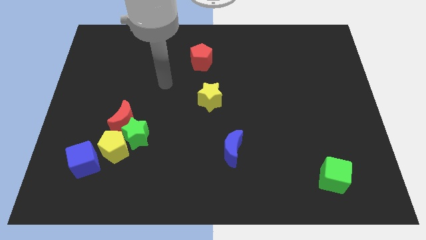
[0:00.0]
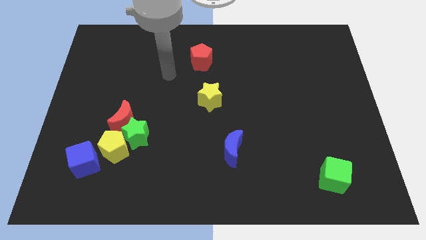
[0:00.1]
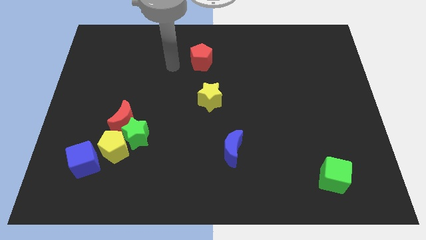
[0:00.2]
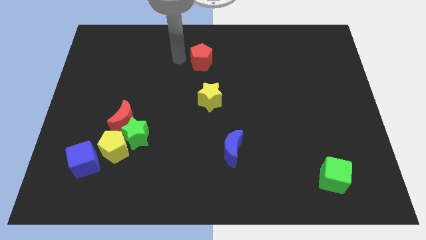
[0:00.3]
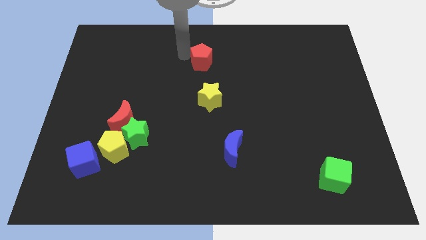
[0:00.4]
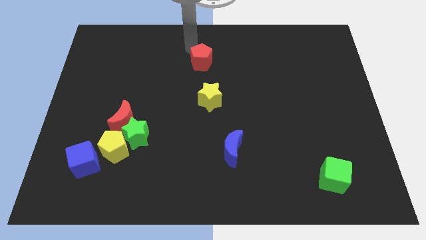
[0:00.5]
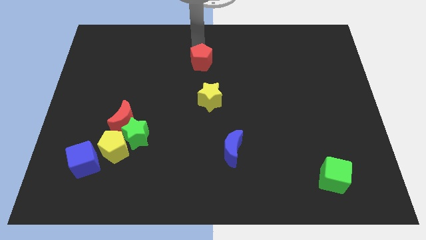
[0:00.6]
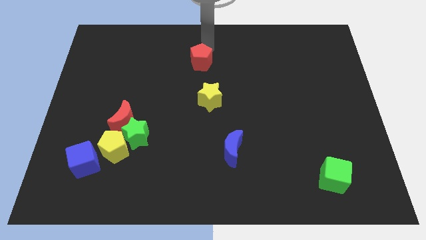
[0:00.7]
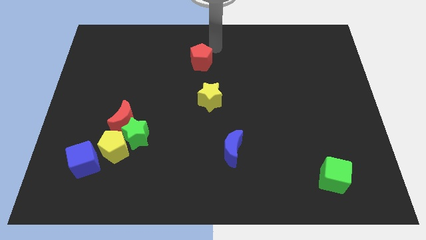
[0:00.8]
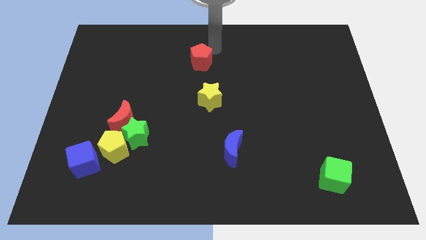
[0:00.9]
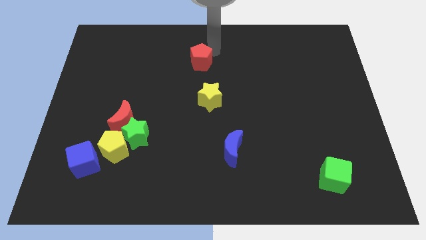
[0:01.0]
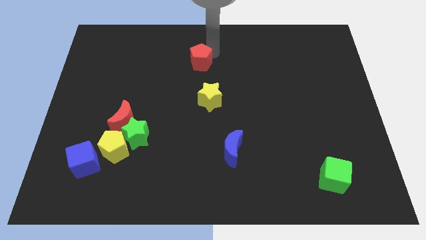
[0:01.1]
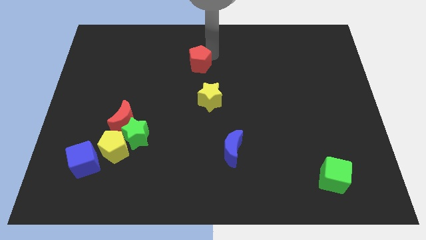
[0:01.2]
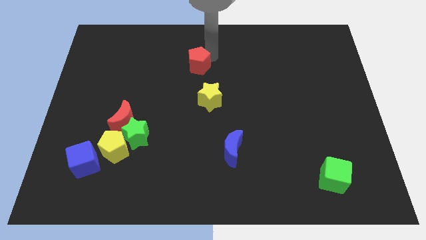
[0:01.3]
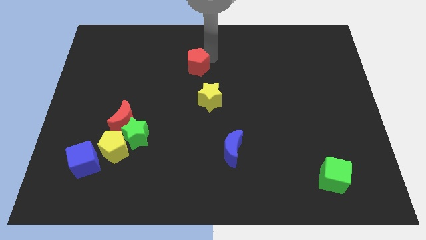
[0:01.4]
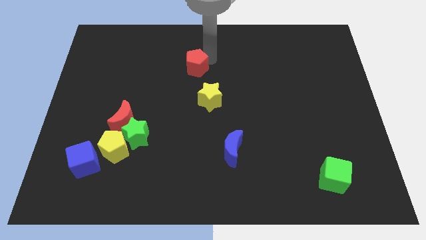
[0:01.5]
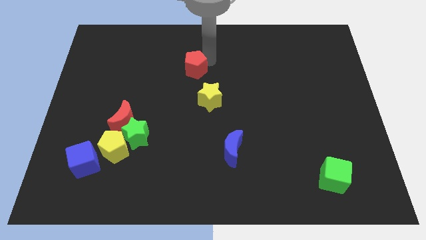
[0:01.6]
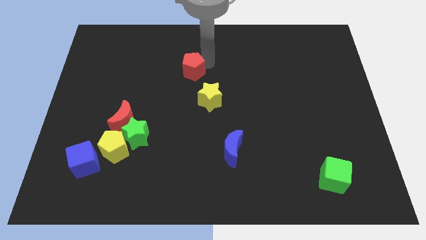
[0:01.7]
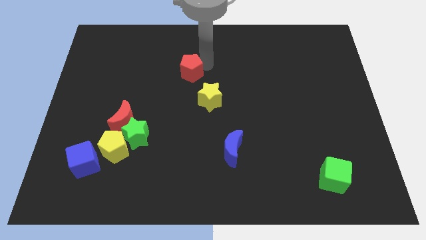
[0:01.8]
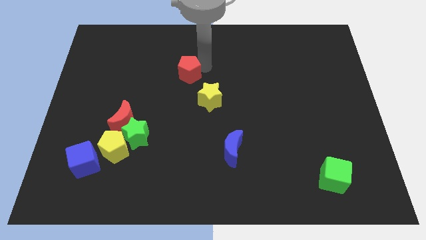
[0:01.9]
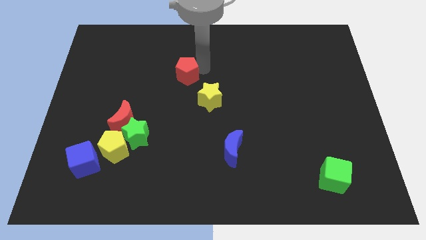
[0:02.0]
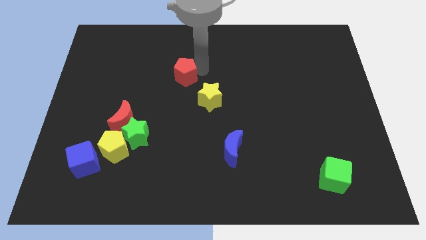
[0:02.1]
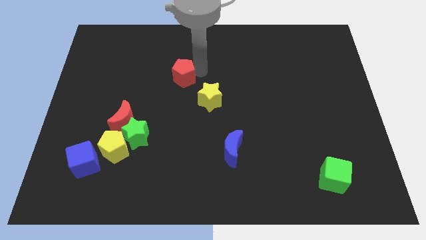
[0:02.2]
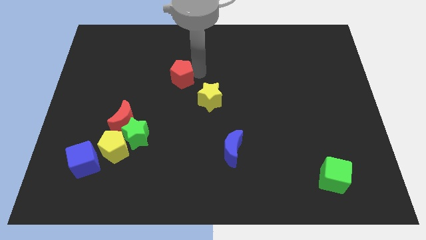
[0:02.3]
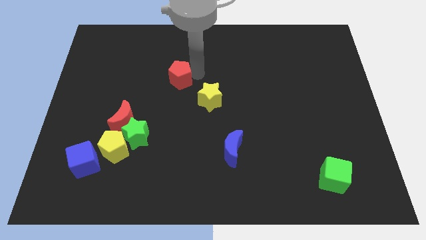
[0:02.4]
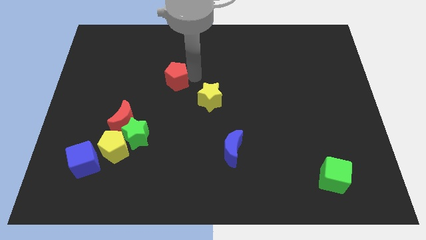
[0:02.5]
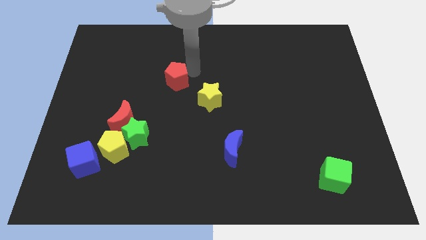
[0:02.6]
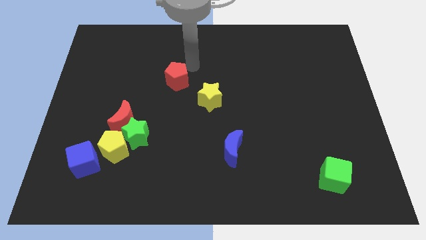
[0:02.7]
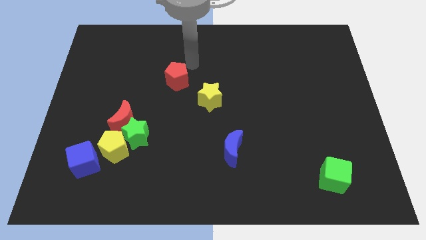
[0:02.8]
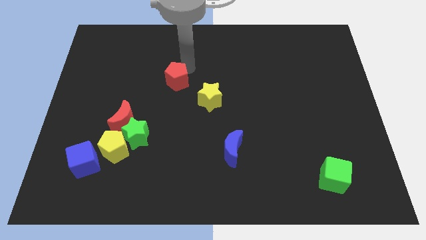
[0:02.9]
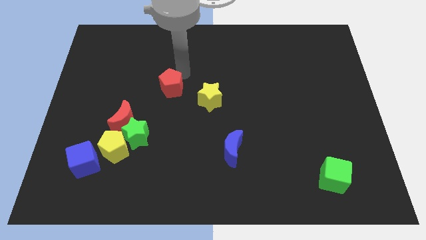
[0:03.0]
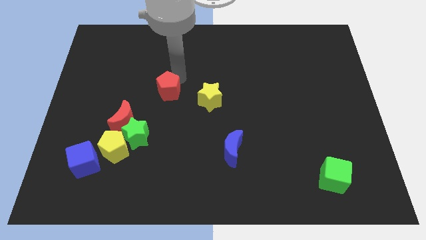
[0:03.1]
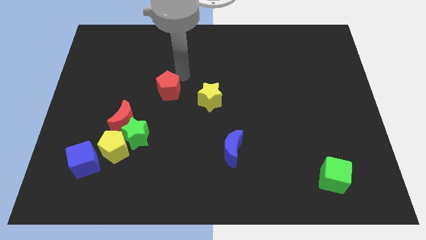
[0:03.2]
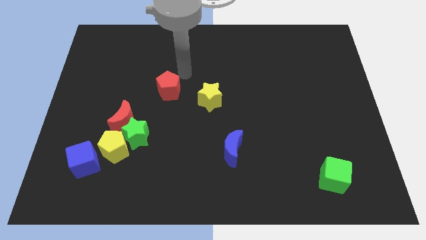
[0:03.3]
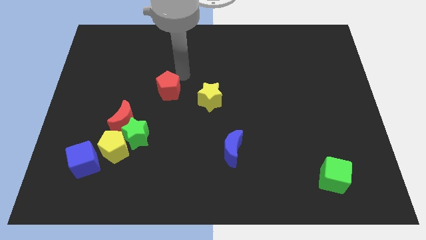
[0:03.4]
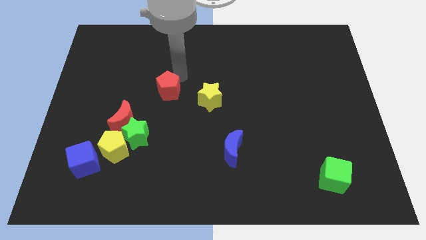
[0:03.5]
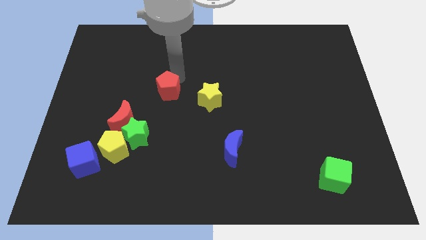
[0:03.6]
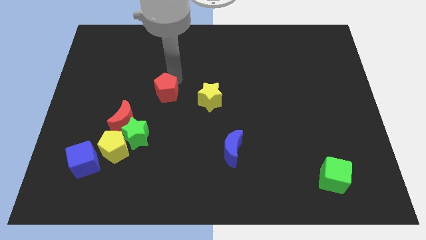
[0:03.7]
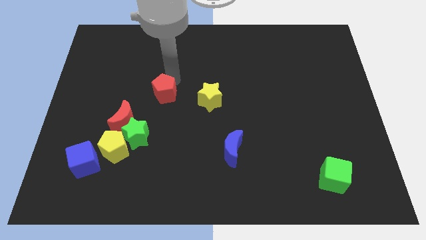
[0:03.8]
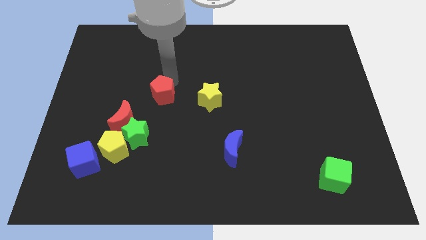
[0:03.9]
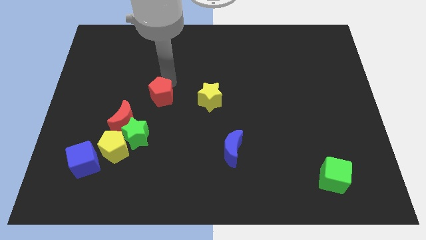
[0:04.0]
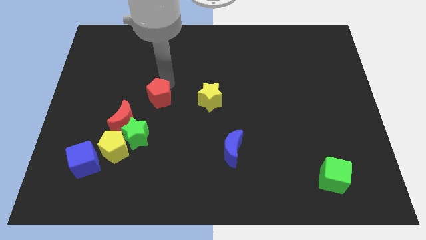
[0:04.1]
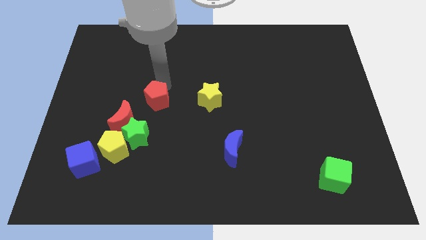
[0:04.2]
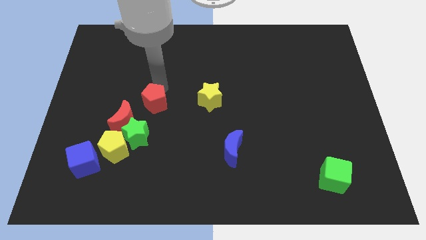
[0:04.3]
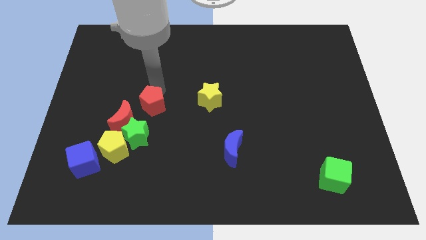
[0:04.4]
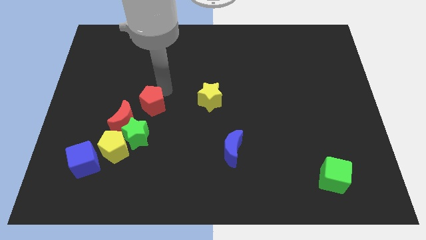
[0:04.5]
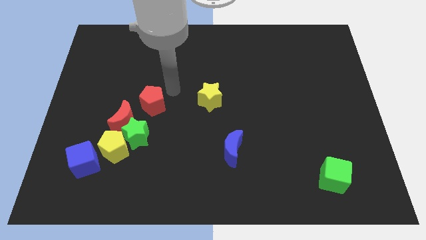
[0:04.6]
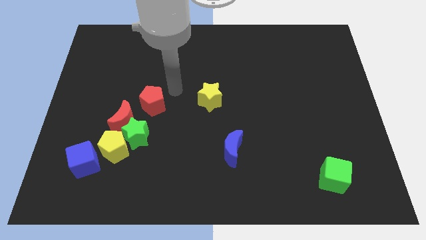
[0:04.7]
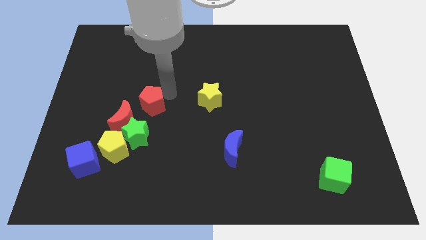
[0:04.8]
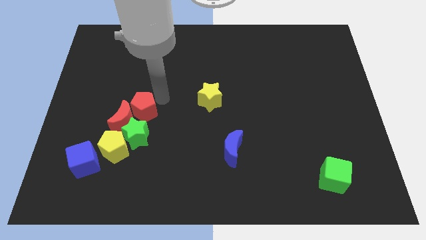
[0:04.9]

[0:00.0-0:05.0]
push the red pentagon to the red moon

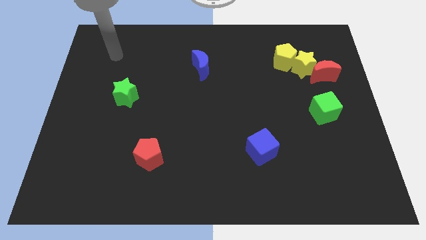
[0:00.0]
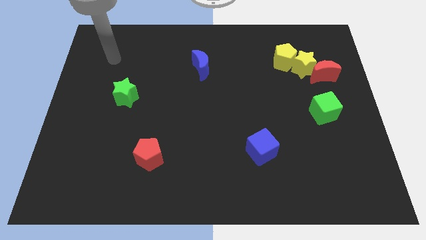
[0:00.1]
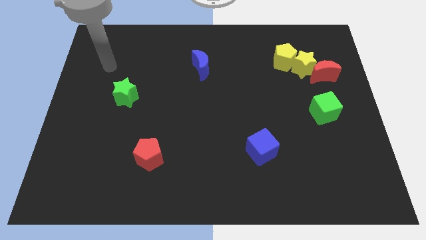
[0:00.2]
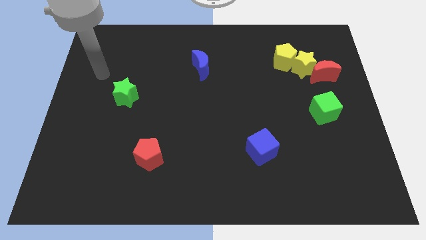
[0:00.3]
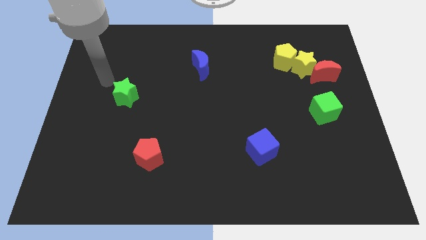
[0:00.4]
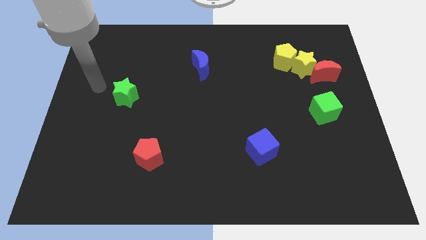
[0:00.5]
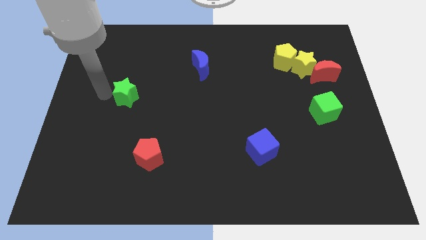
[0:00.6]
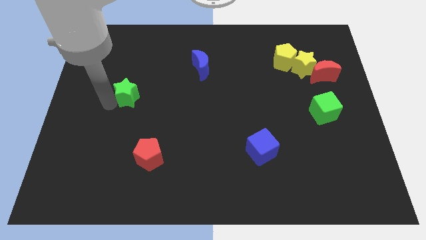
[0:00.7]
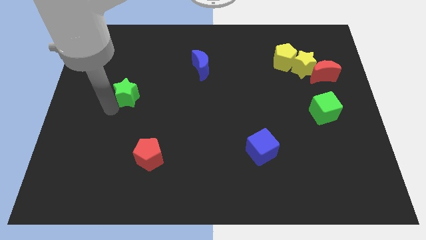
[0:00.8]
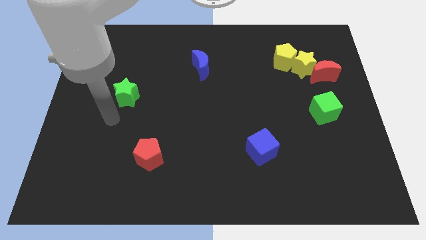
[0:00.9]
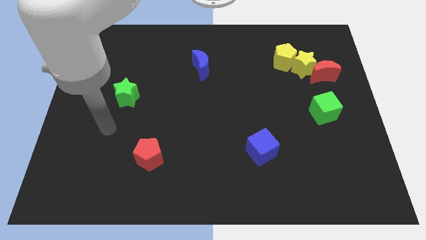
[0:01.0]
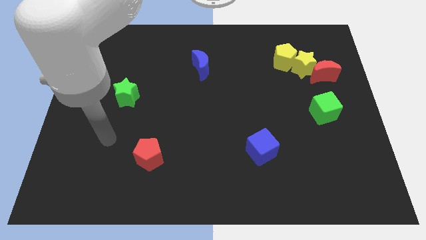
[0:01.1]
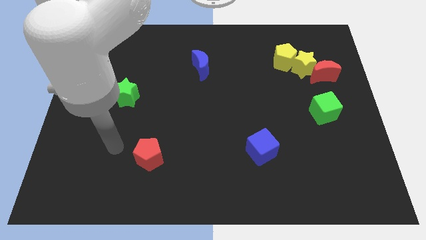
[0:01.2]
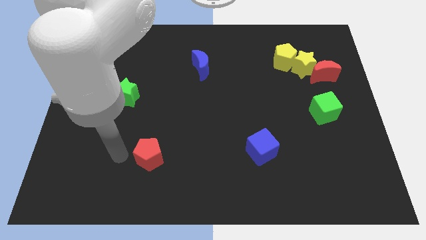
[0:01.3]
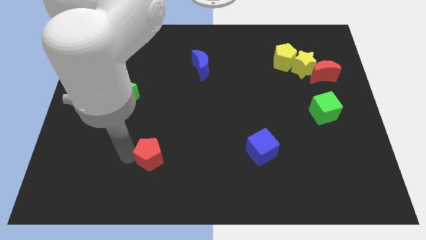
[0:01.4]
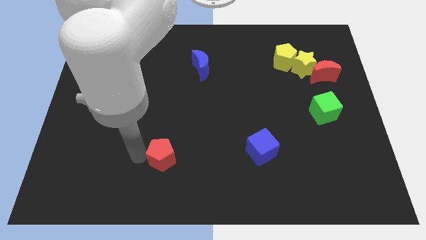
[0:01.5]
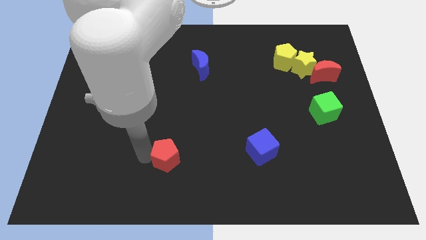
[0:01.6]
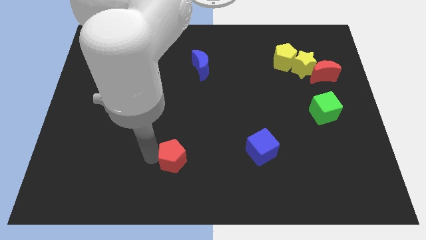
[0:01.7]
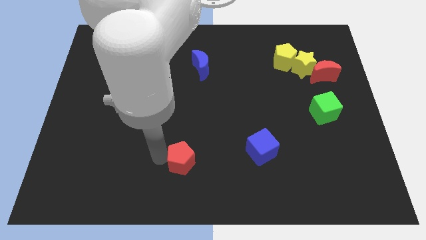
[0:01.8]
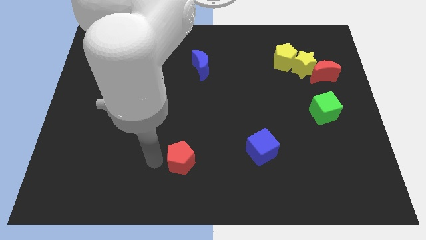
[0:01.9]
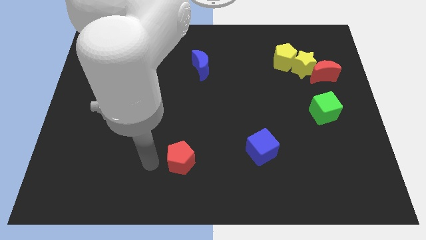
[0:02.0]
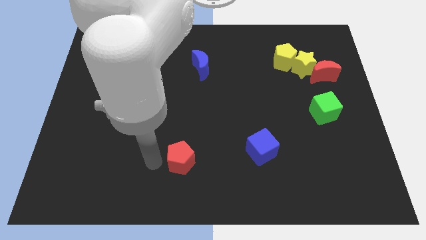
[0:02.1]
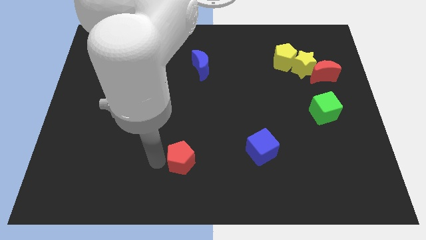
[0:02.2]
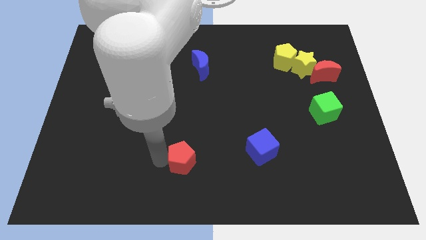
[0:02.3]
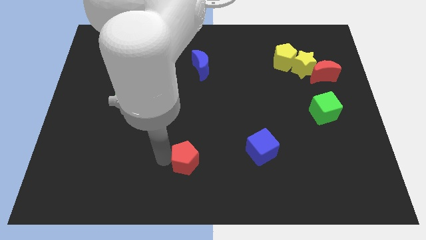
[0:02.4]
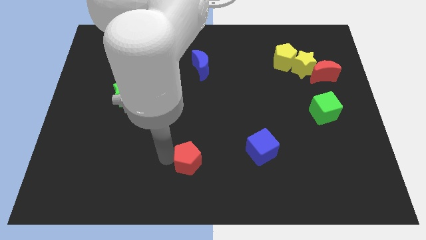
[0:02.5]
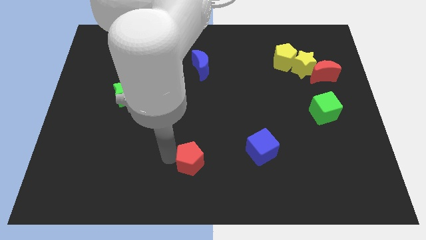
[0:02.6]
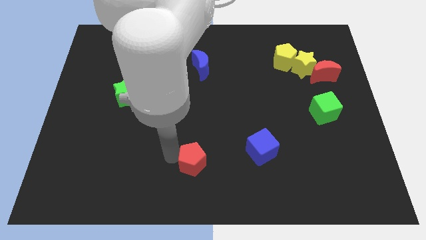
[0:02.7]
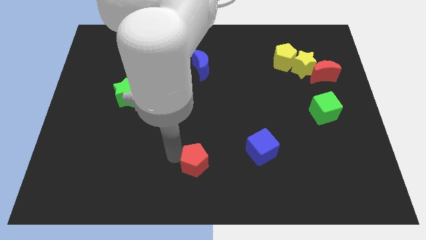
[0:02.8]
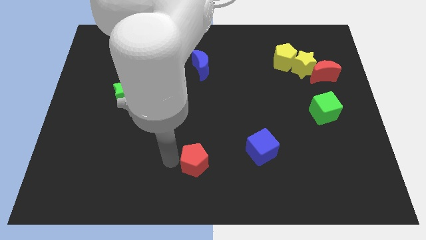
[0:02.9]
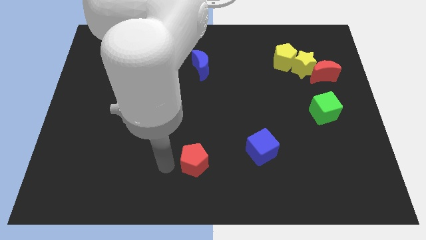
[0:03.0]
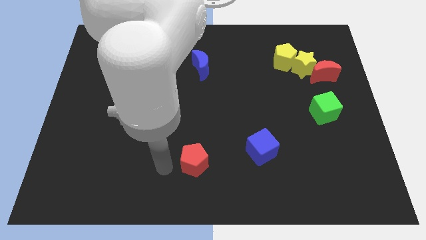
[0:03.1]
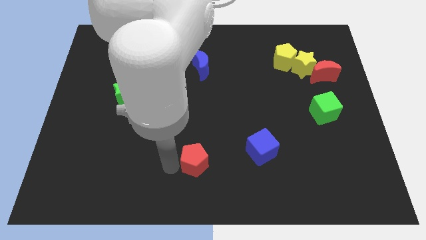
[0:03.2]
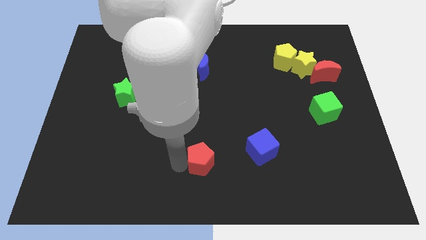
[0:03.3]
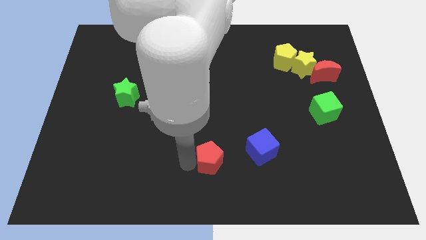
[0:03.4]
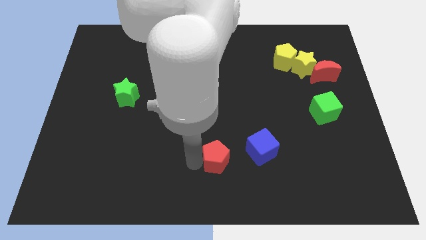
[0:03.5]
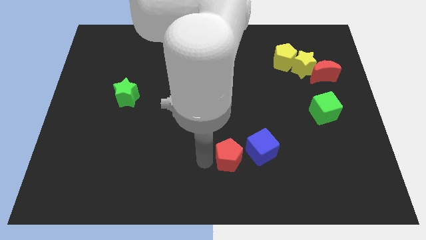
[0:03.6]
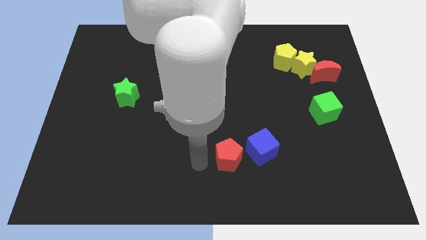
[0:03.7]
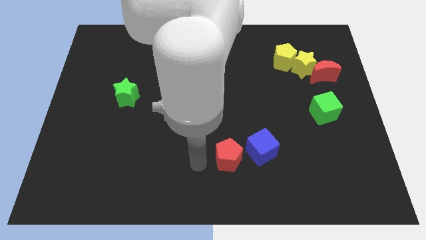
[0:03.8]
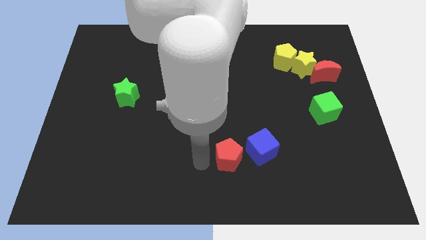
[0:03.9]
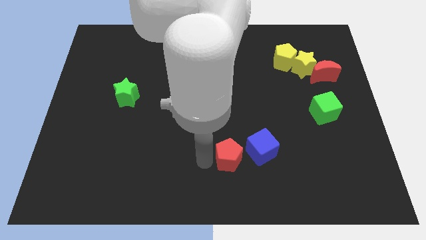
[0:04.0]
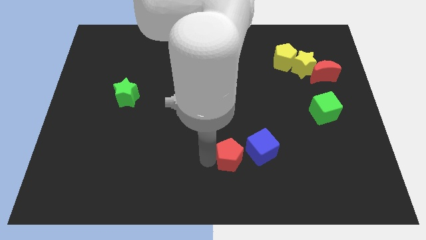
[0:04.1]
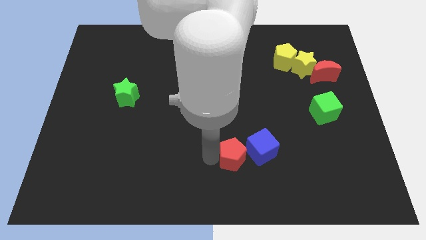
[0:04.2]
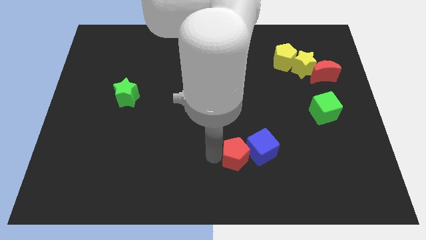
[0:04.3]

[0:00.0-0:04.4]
slide the red pentagon close to the blue cube
